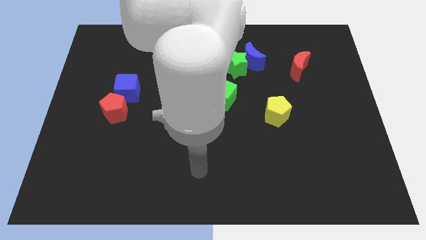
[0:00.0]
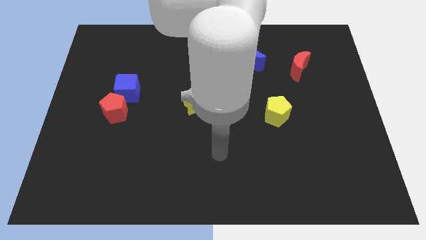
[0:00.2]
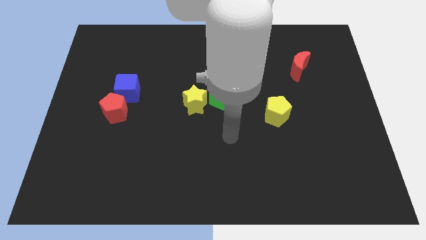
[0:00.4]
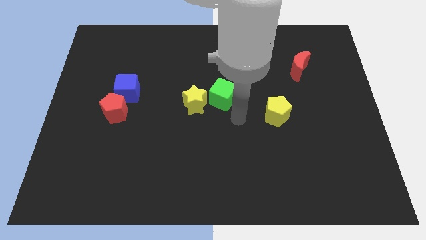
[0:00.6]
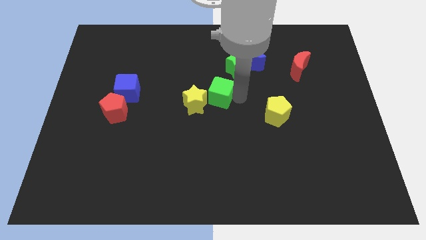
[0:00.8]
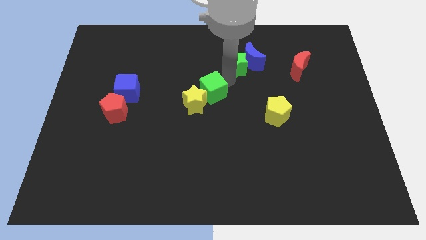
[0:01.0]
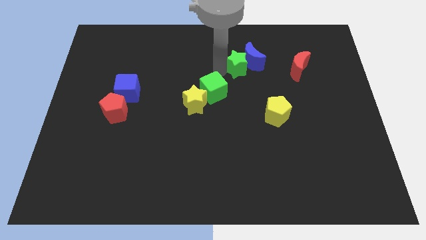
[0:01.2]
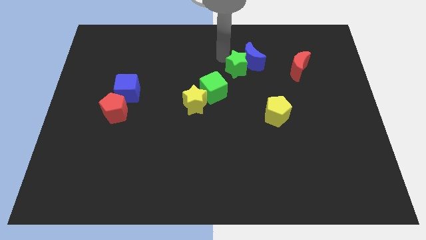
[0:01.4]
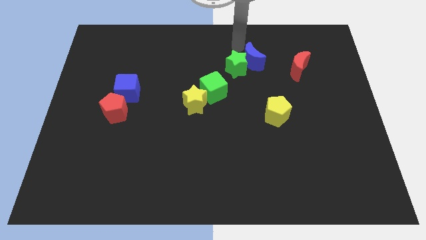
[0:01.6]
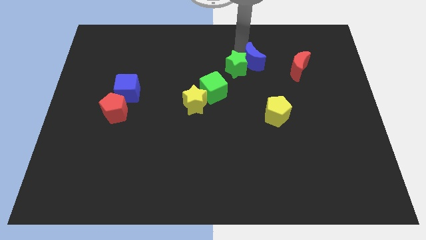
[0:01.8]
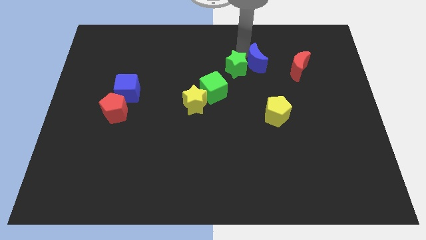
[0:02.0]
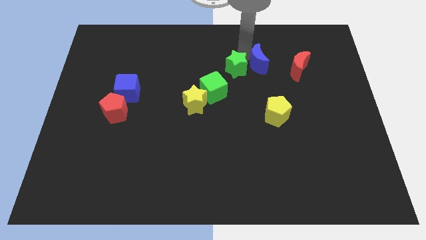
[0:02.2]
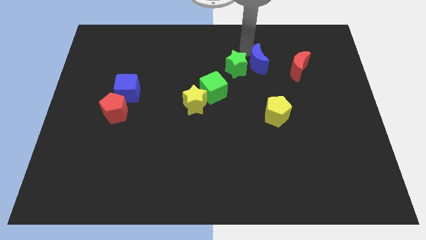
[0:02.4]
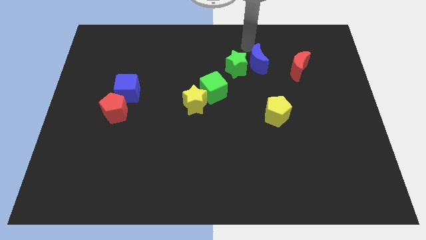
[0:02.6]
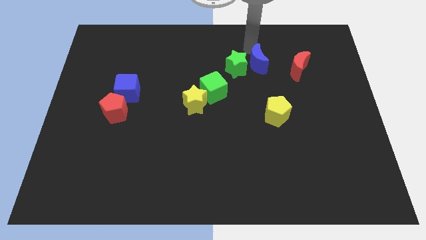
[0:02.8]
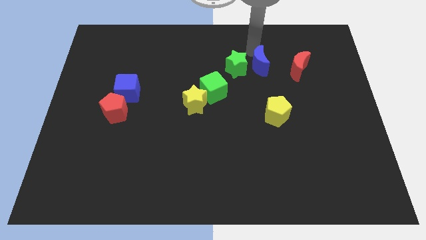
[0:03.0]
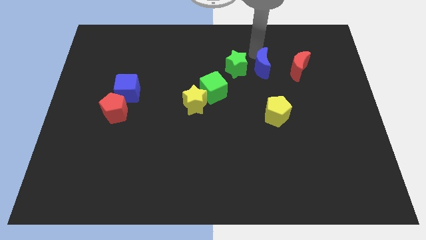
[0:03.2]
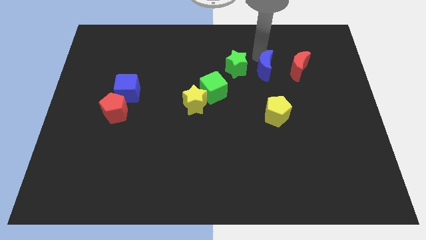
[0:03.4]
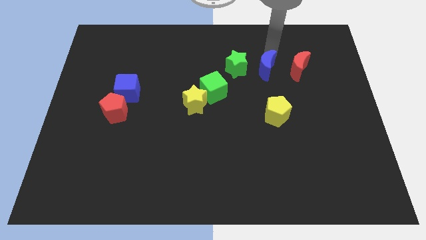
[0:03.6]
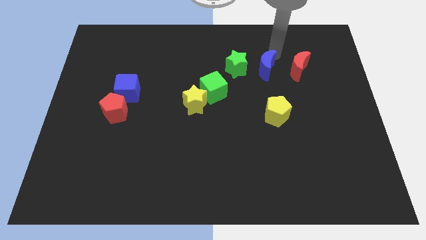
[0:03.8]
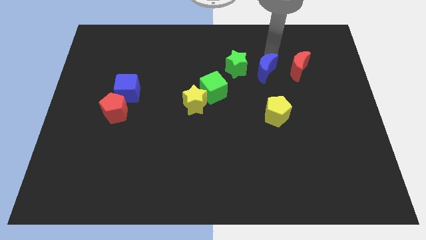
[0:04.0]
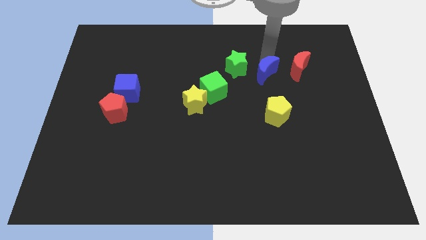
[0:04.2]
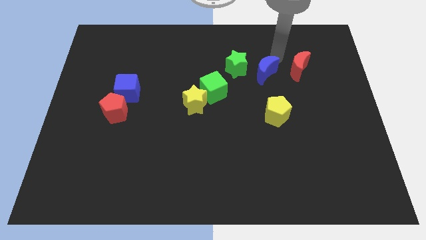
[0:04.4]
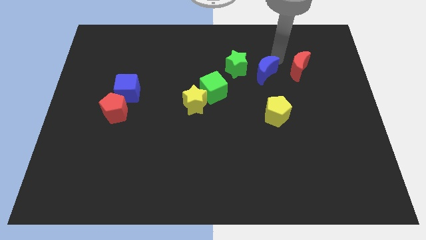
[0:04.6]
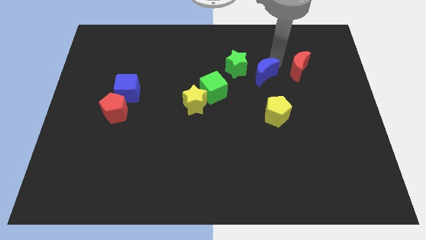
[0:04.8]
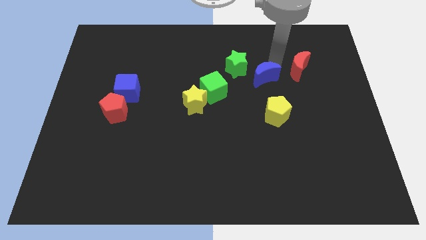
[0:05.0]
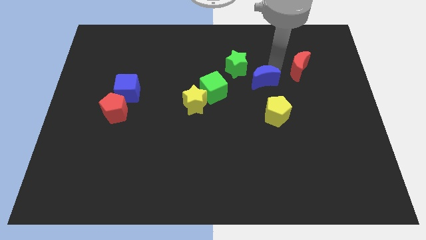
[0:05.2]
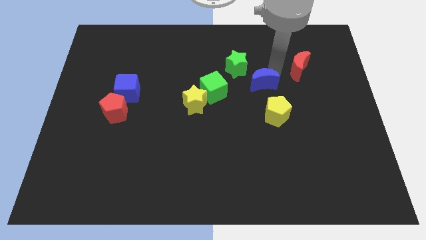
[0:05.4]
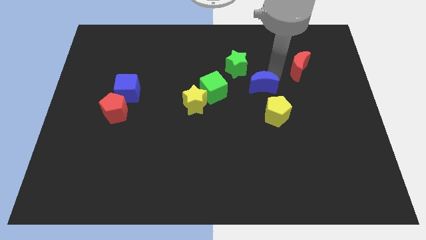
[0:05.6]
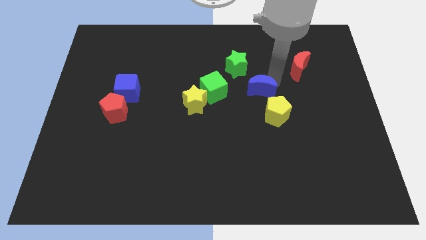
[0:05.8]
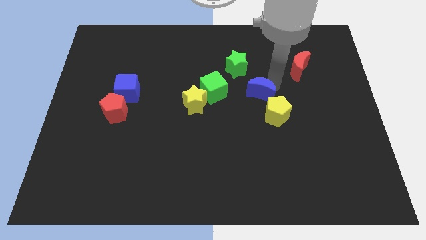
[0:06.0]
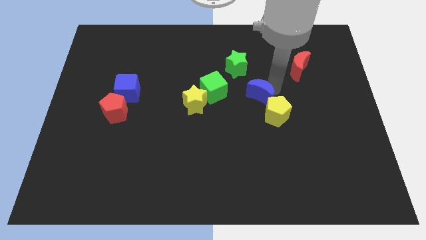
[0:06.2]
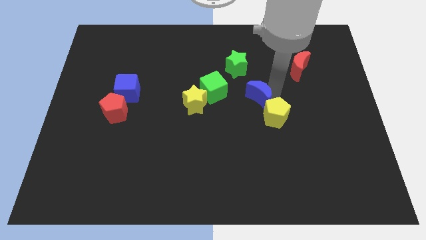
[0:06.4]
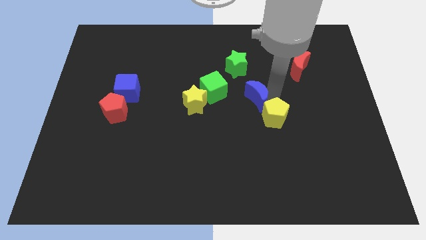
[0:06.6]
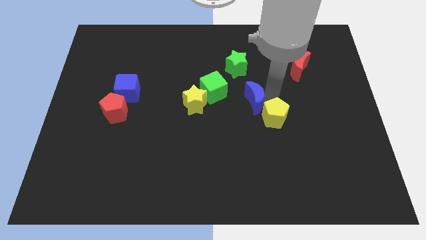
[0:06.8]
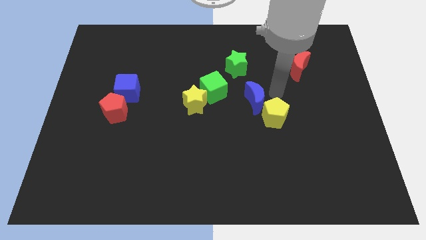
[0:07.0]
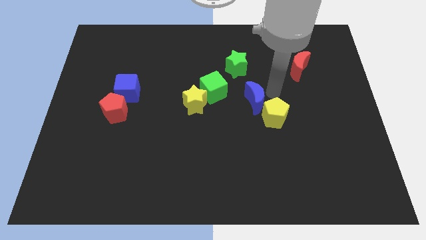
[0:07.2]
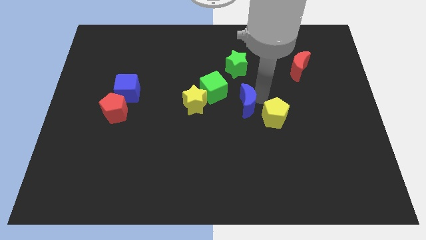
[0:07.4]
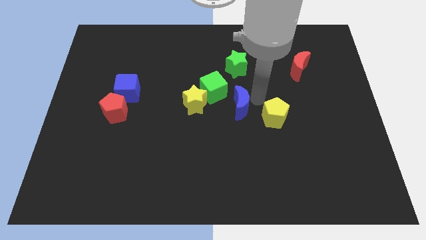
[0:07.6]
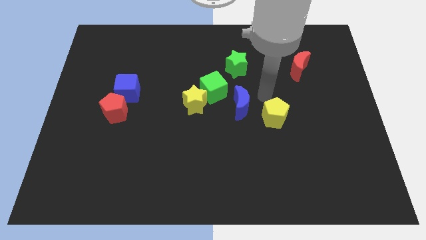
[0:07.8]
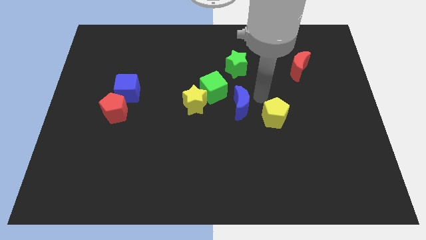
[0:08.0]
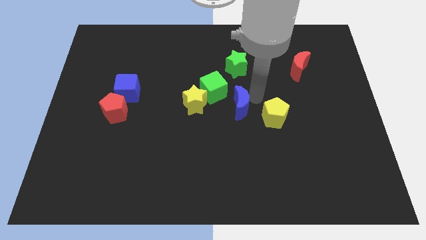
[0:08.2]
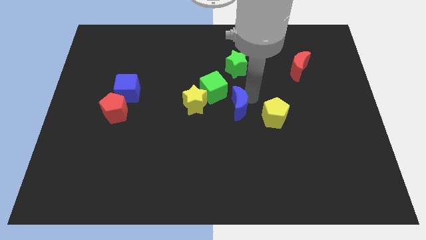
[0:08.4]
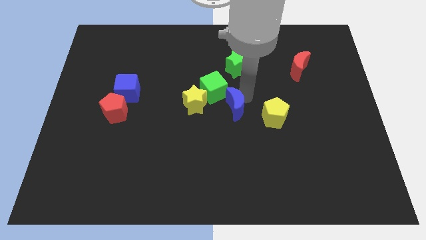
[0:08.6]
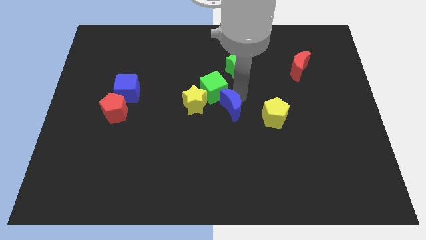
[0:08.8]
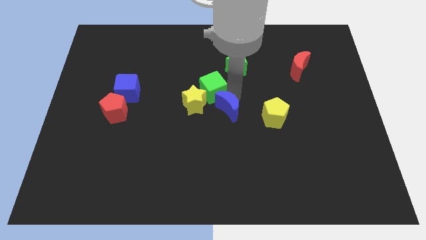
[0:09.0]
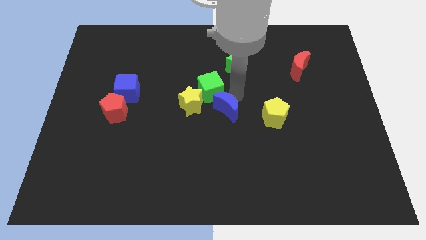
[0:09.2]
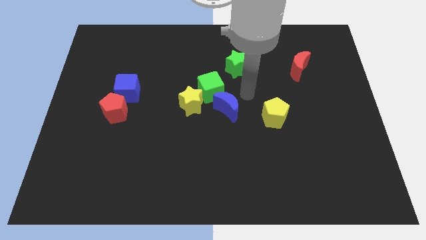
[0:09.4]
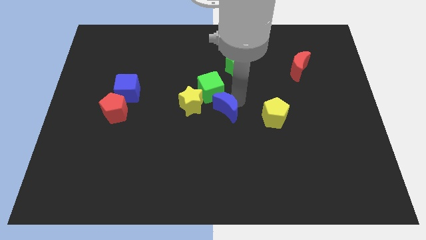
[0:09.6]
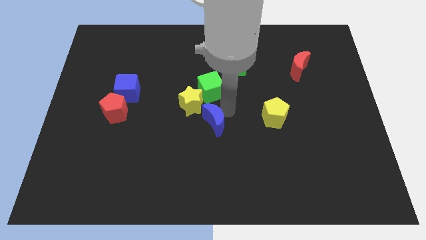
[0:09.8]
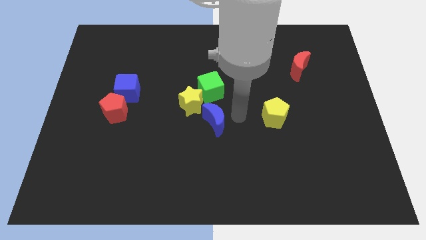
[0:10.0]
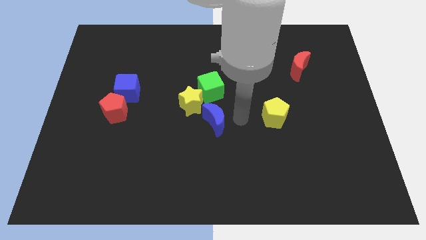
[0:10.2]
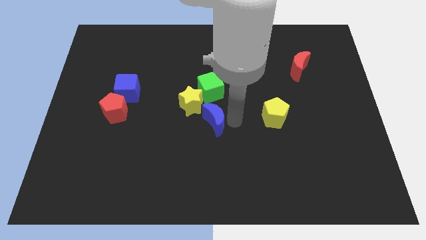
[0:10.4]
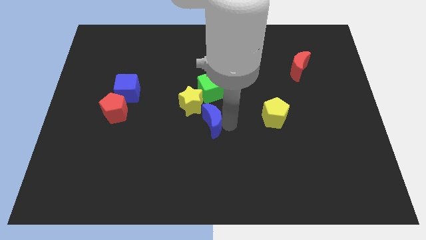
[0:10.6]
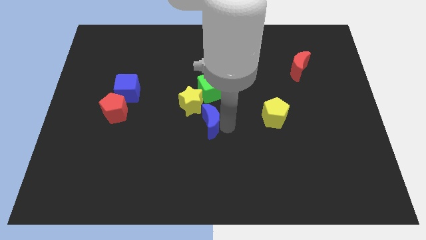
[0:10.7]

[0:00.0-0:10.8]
move the blue moon downwards and to the left

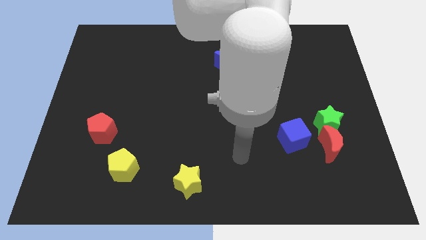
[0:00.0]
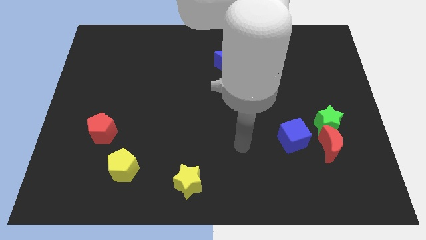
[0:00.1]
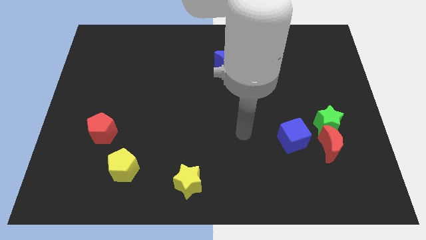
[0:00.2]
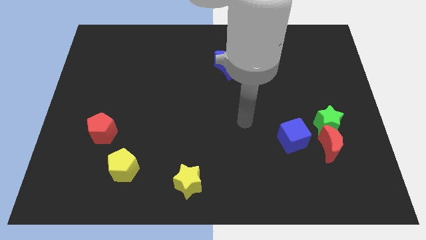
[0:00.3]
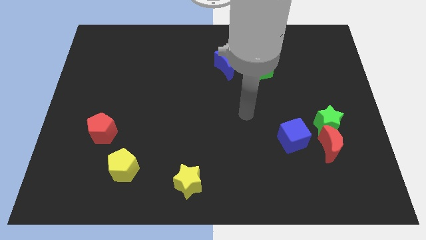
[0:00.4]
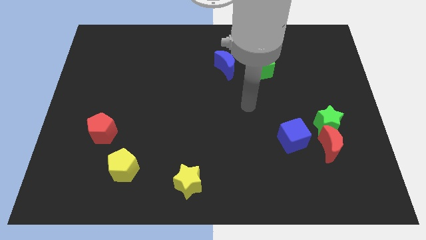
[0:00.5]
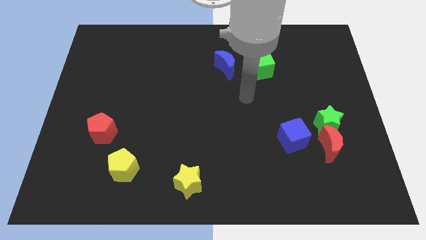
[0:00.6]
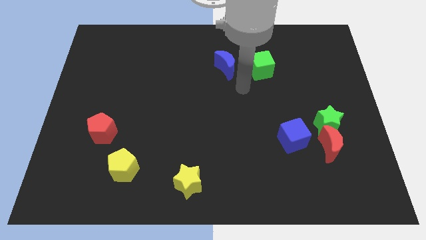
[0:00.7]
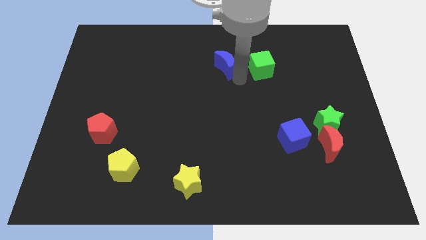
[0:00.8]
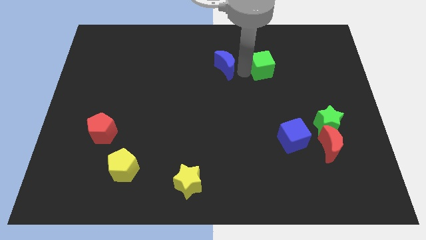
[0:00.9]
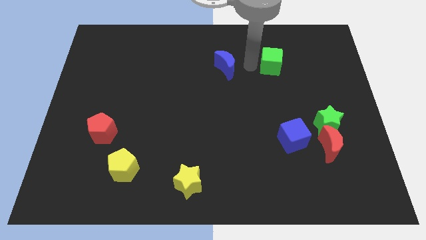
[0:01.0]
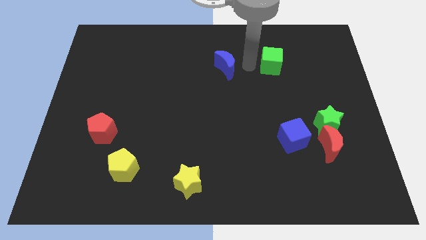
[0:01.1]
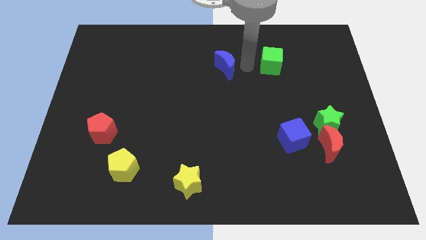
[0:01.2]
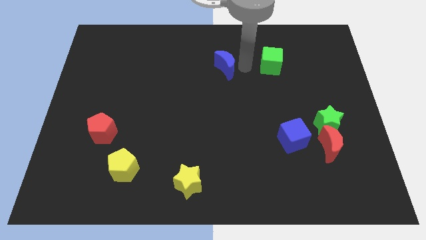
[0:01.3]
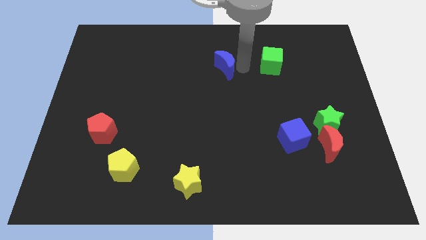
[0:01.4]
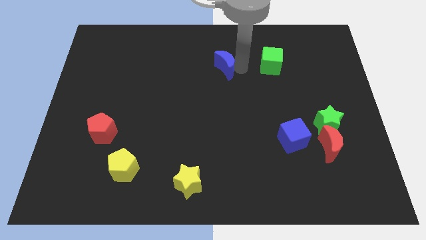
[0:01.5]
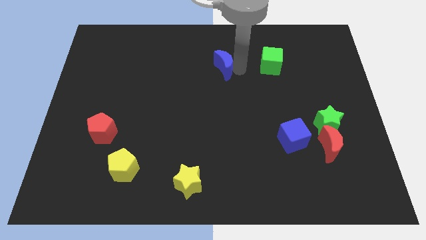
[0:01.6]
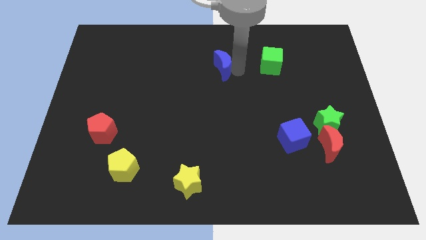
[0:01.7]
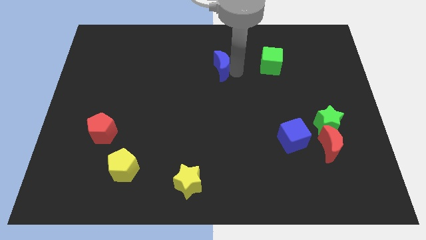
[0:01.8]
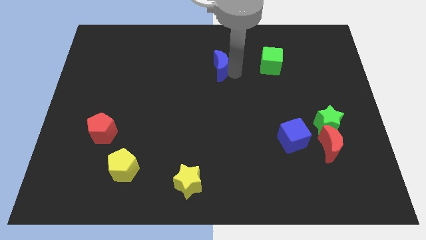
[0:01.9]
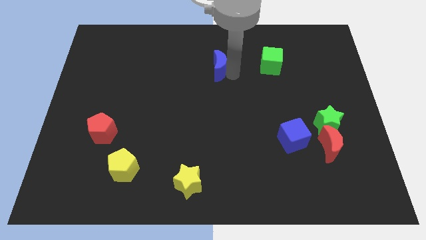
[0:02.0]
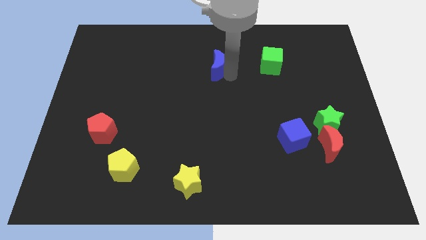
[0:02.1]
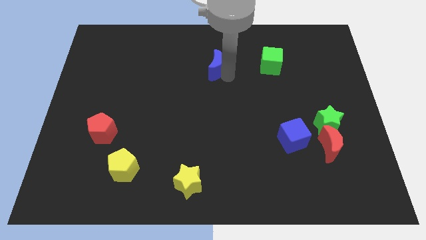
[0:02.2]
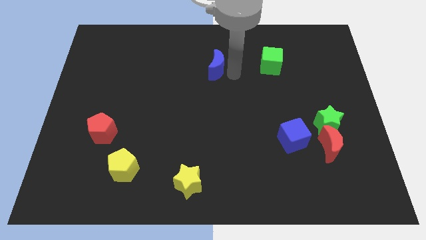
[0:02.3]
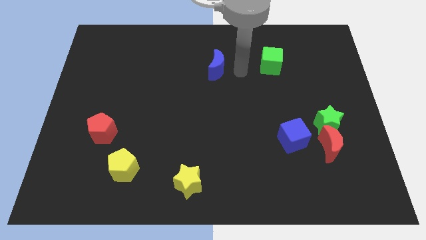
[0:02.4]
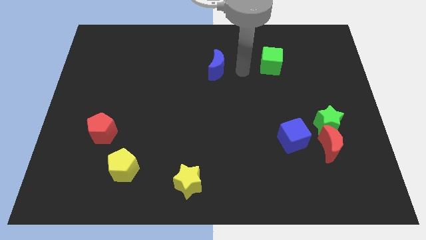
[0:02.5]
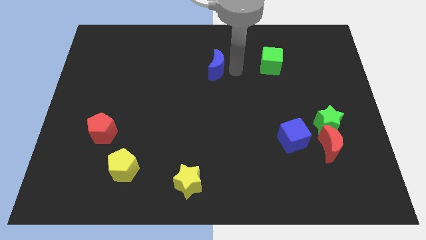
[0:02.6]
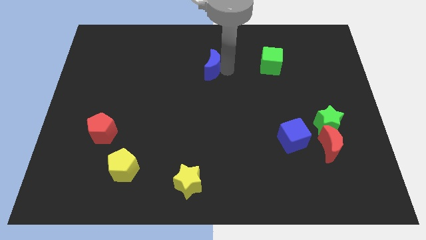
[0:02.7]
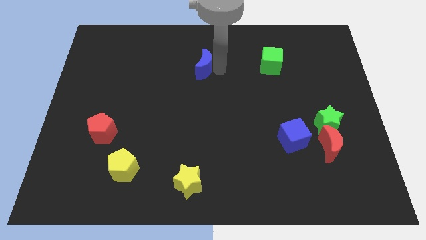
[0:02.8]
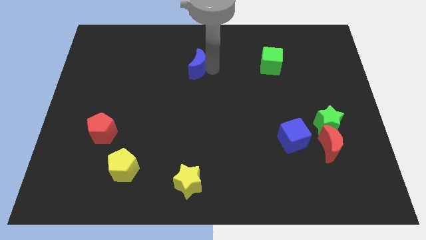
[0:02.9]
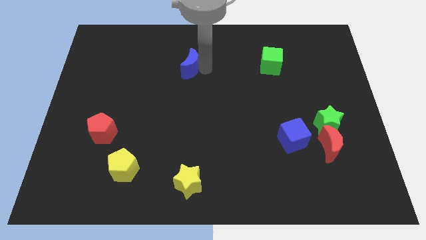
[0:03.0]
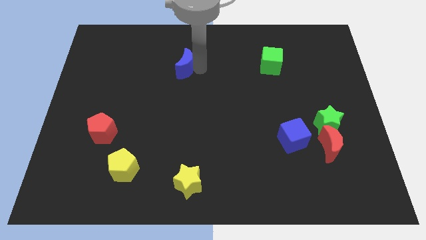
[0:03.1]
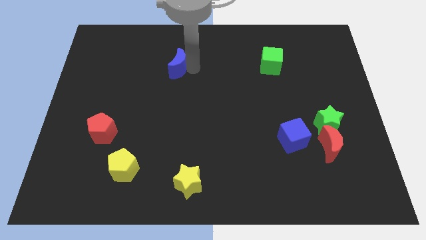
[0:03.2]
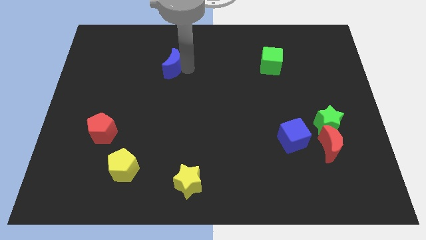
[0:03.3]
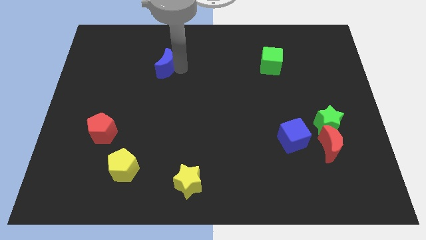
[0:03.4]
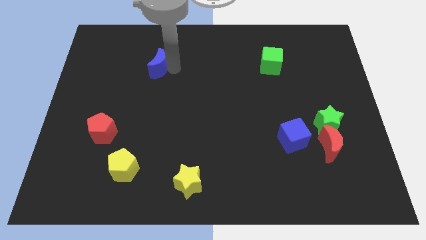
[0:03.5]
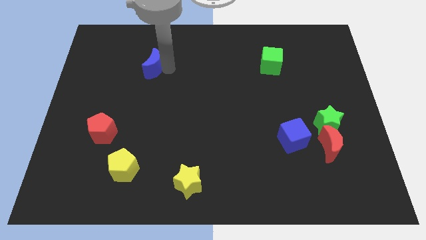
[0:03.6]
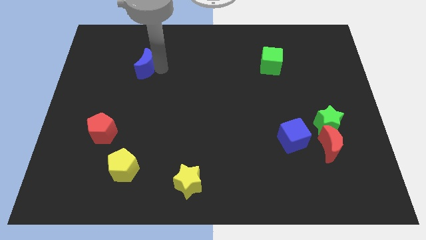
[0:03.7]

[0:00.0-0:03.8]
push the blue moon to the left
